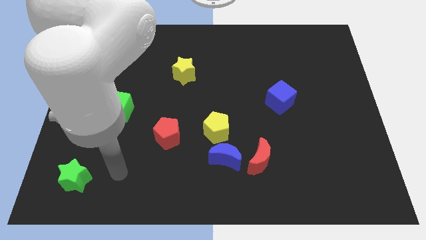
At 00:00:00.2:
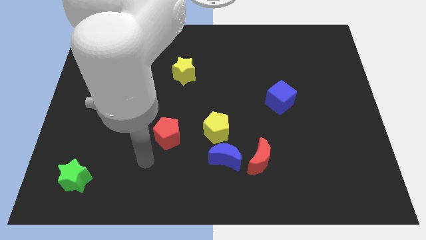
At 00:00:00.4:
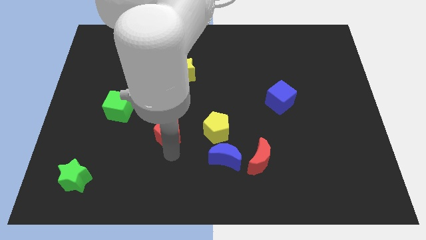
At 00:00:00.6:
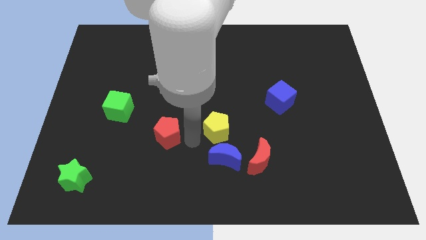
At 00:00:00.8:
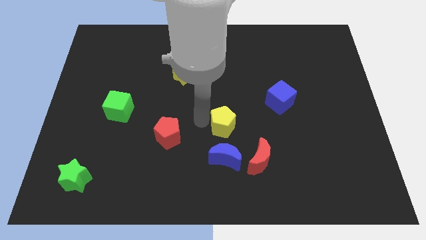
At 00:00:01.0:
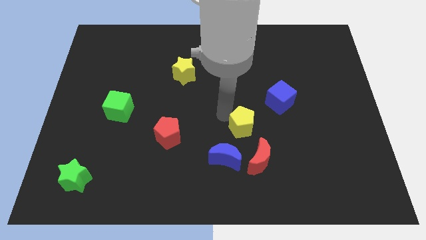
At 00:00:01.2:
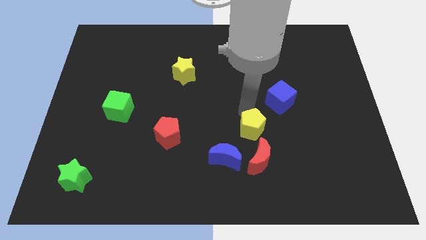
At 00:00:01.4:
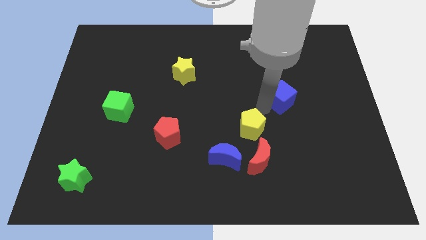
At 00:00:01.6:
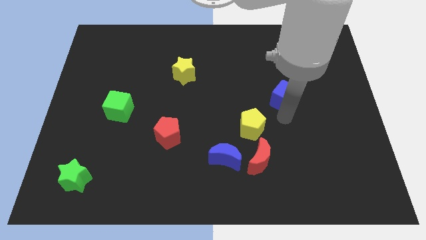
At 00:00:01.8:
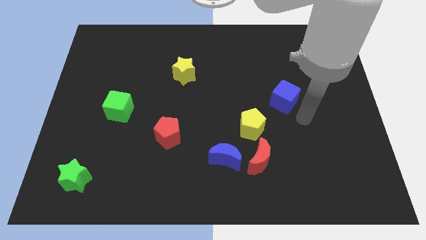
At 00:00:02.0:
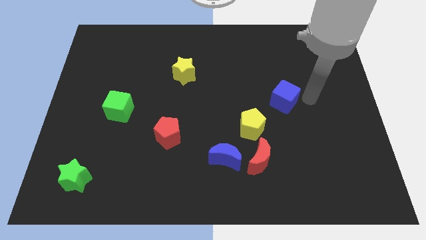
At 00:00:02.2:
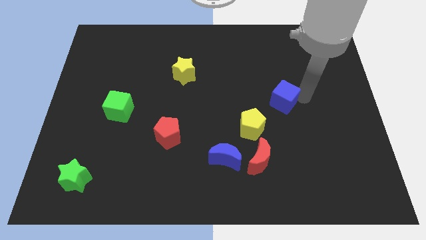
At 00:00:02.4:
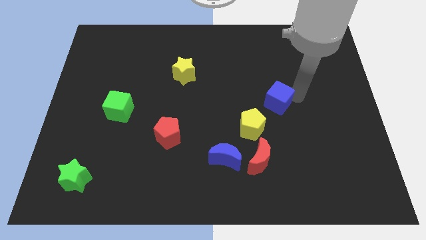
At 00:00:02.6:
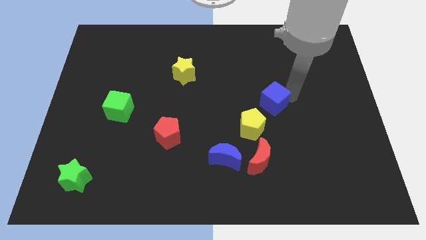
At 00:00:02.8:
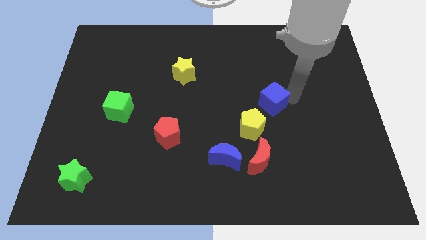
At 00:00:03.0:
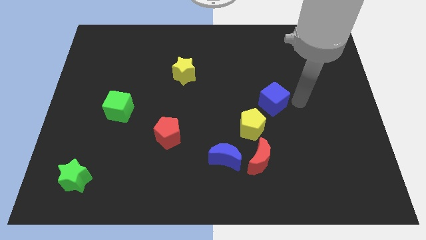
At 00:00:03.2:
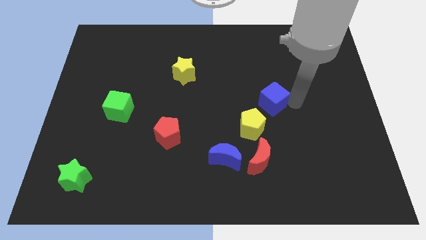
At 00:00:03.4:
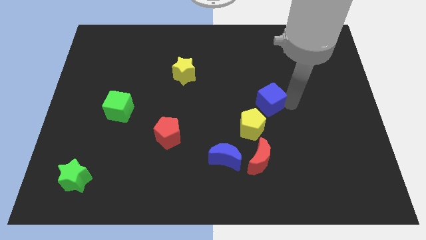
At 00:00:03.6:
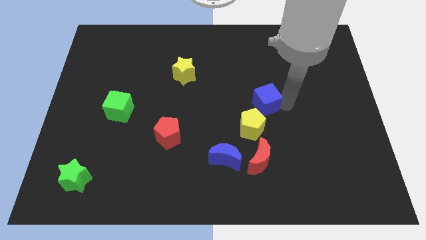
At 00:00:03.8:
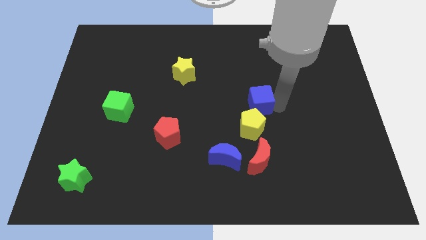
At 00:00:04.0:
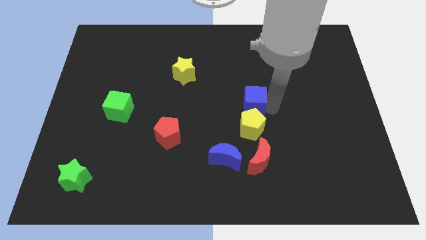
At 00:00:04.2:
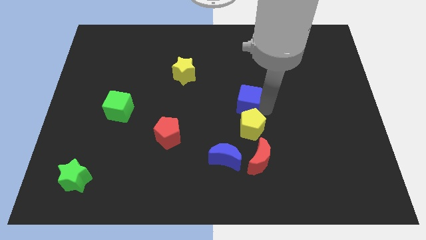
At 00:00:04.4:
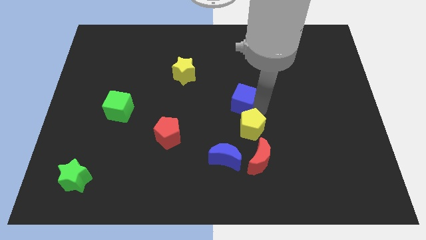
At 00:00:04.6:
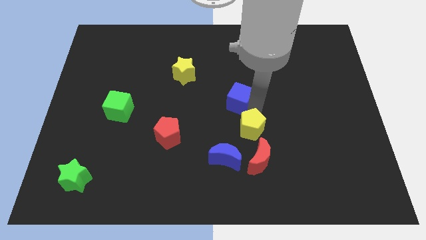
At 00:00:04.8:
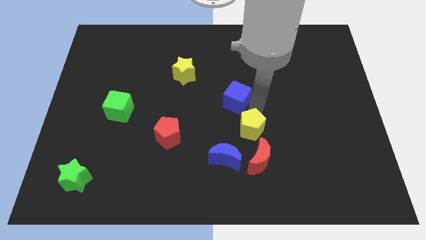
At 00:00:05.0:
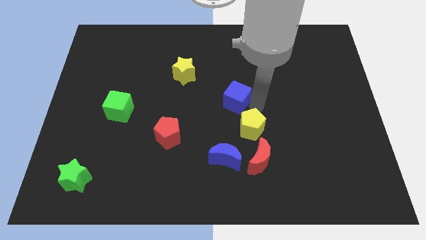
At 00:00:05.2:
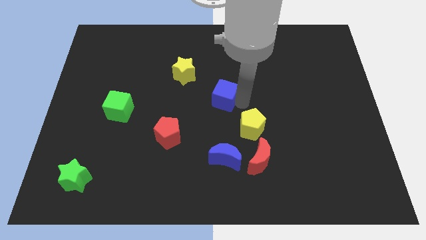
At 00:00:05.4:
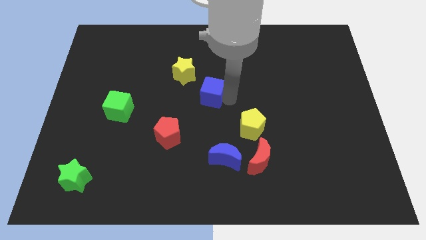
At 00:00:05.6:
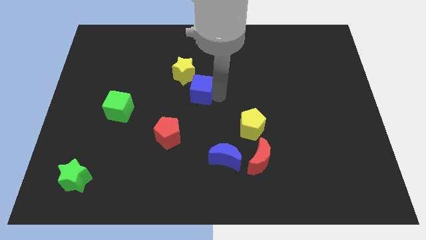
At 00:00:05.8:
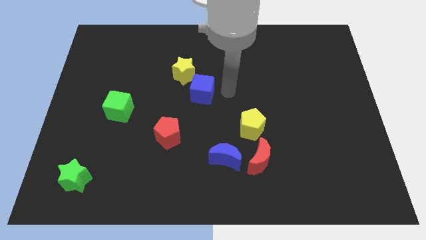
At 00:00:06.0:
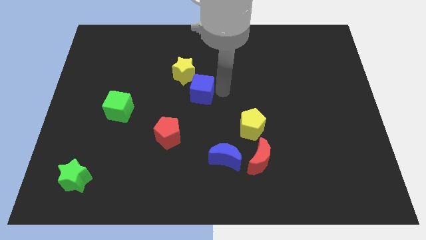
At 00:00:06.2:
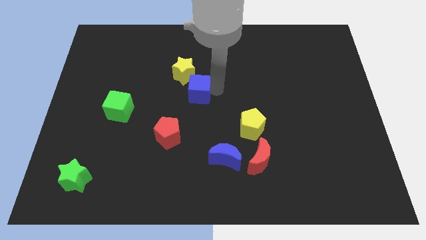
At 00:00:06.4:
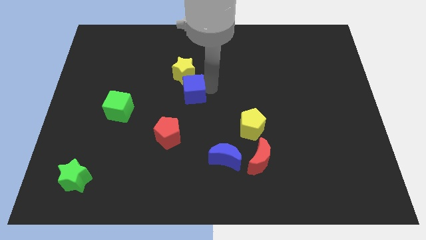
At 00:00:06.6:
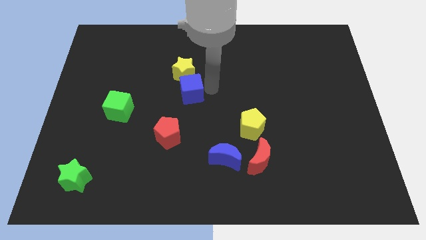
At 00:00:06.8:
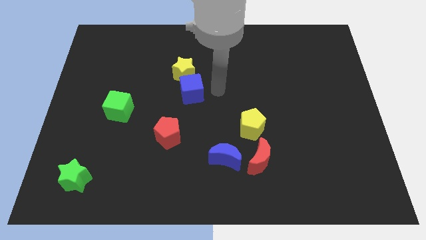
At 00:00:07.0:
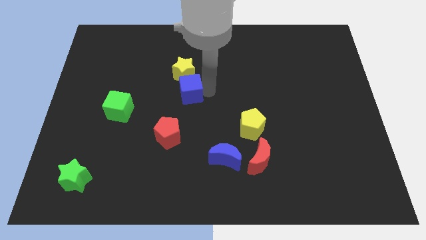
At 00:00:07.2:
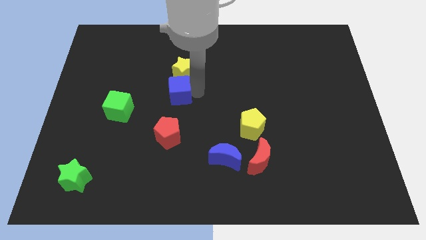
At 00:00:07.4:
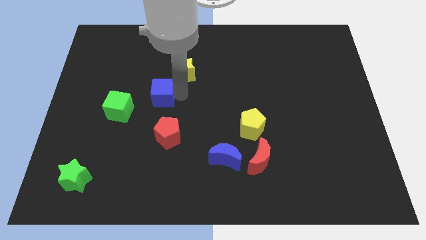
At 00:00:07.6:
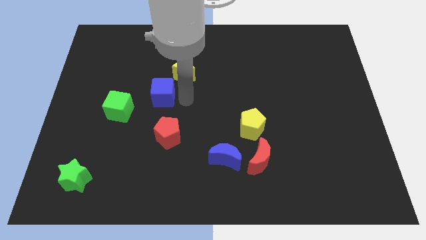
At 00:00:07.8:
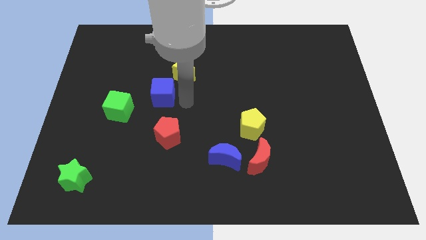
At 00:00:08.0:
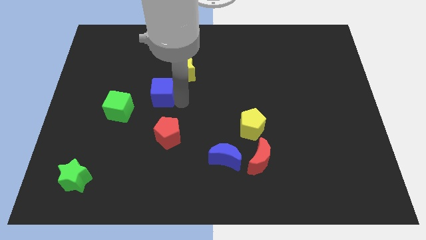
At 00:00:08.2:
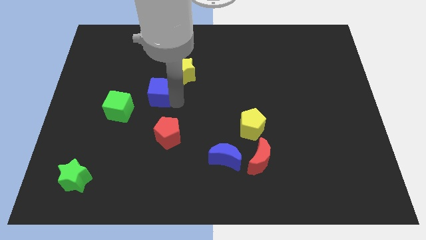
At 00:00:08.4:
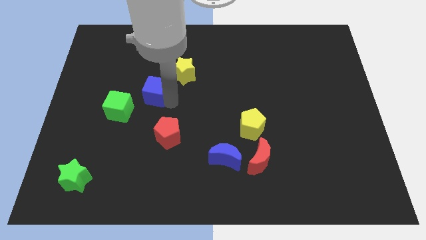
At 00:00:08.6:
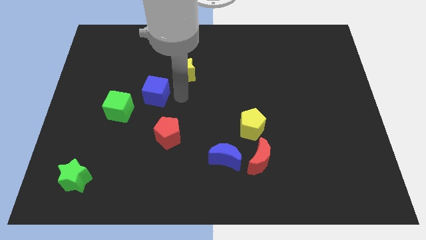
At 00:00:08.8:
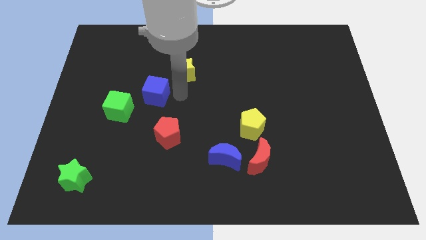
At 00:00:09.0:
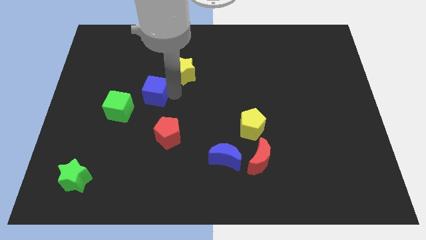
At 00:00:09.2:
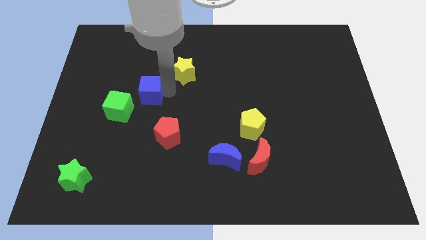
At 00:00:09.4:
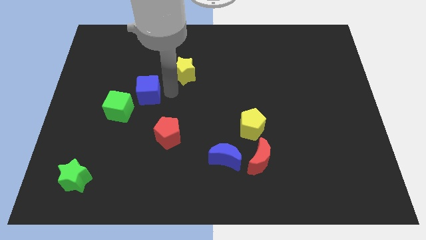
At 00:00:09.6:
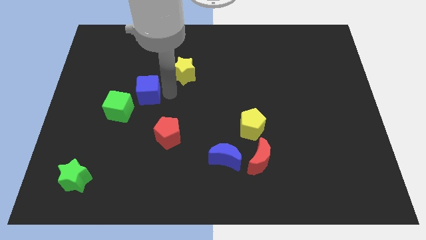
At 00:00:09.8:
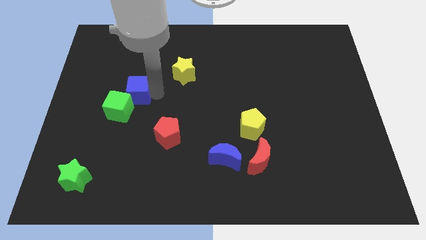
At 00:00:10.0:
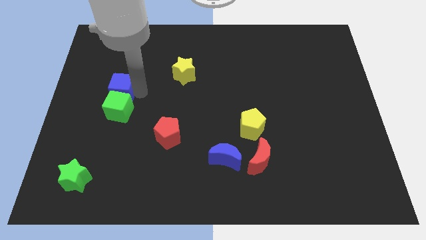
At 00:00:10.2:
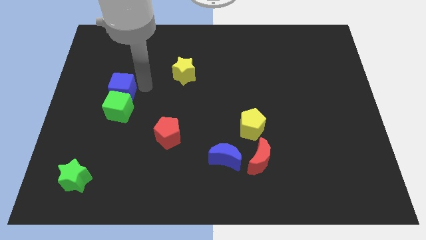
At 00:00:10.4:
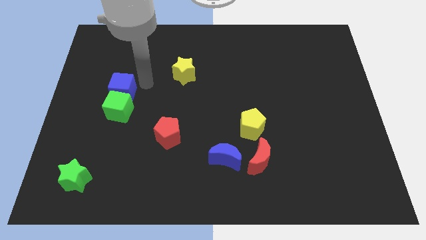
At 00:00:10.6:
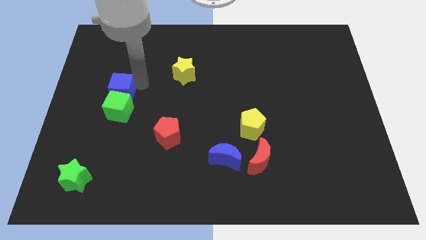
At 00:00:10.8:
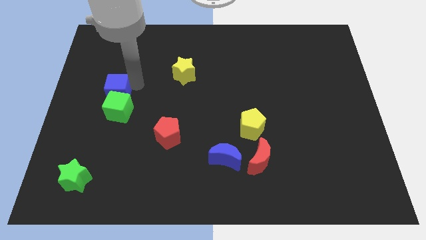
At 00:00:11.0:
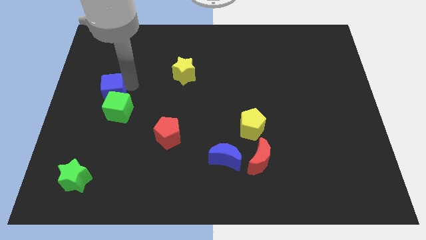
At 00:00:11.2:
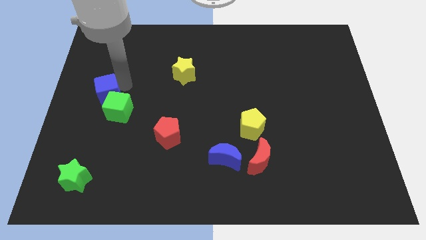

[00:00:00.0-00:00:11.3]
move the blue cube to the center left

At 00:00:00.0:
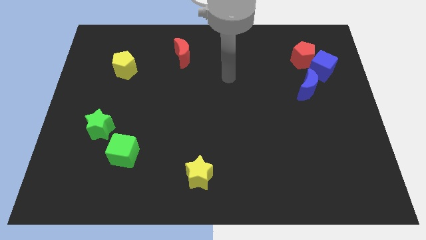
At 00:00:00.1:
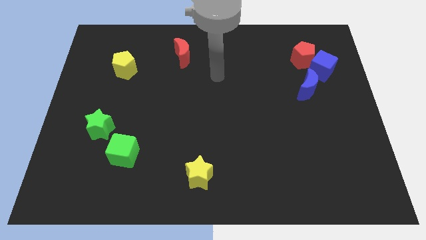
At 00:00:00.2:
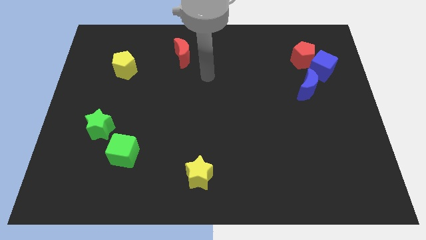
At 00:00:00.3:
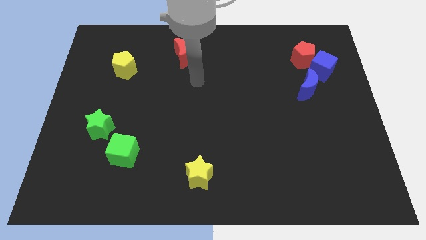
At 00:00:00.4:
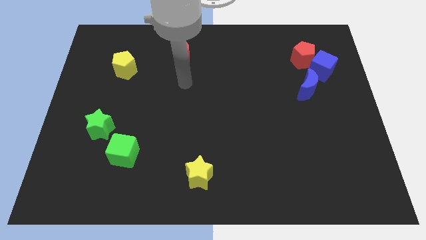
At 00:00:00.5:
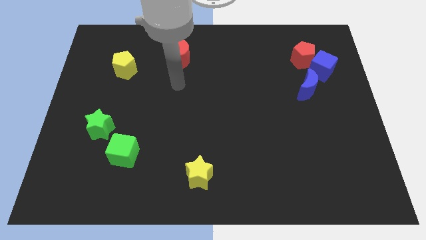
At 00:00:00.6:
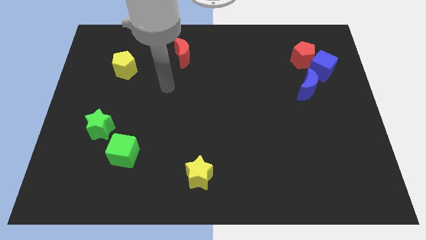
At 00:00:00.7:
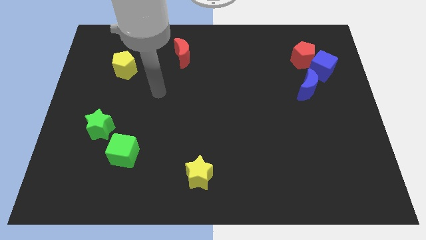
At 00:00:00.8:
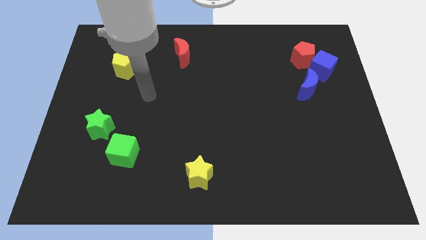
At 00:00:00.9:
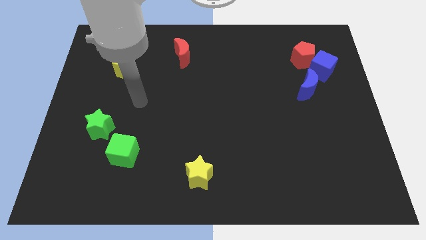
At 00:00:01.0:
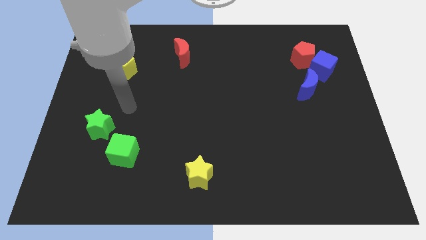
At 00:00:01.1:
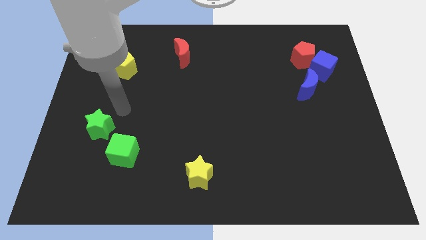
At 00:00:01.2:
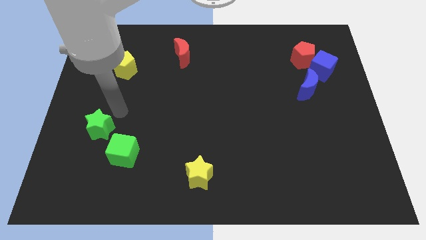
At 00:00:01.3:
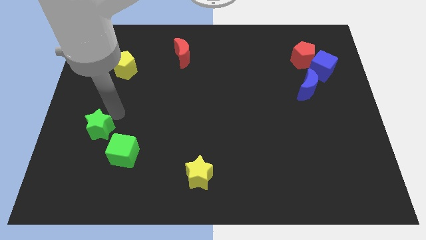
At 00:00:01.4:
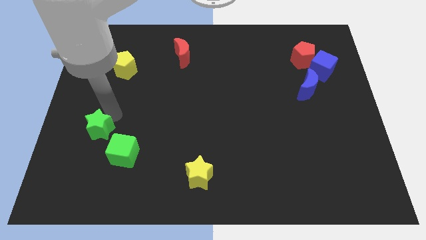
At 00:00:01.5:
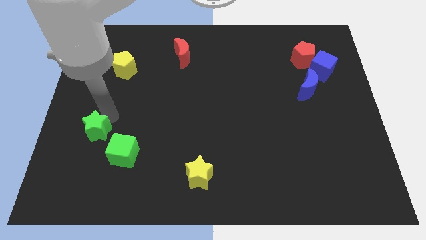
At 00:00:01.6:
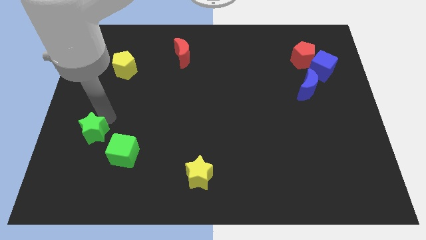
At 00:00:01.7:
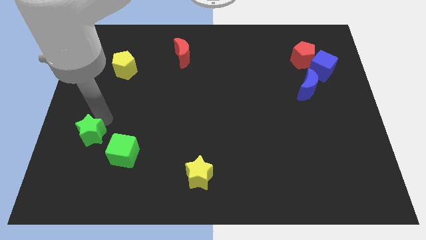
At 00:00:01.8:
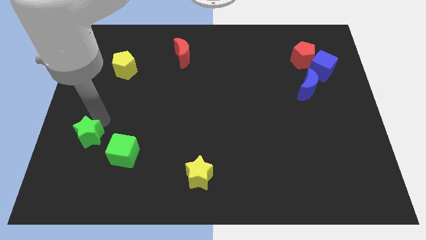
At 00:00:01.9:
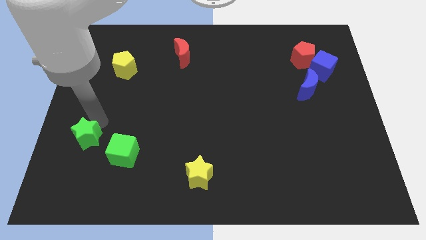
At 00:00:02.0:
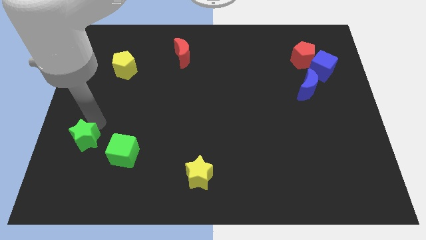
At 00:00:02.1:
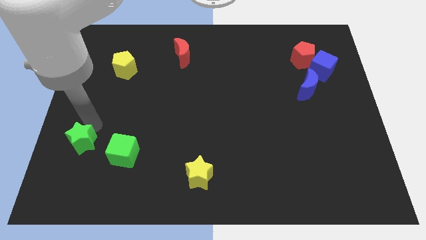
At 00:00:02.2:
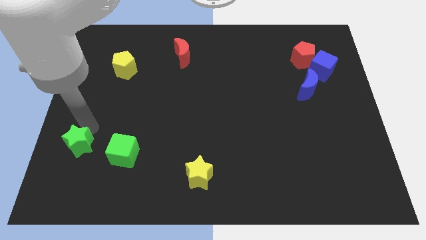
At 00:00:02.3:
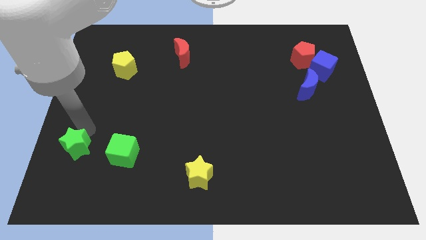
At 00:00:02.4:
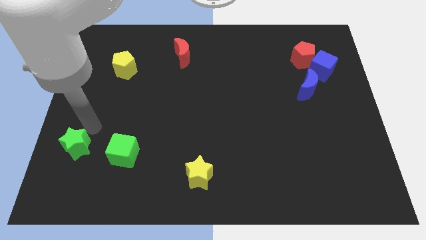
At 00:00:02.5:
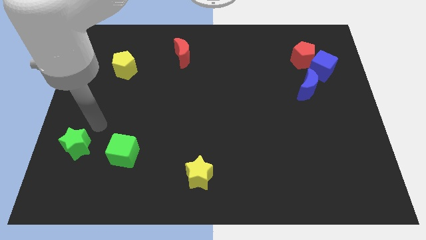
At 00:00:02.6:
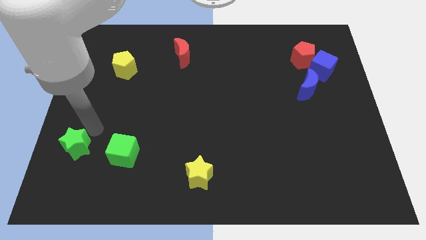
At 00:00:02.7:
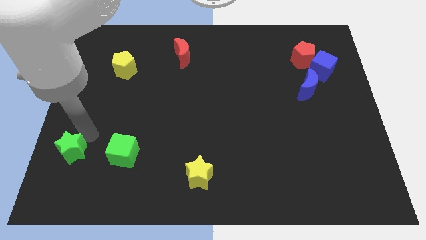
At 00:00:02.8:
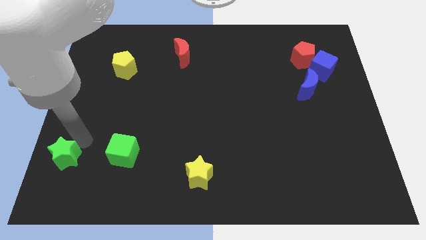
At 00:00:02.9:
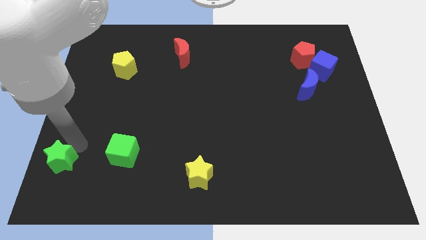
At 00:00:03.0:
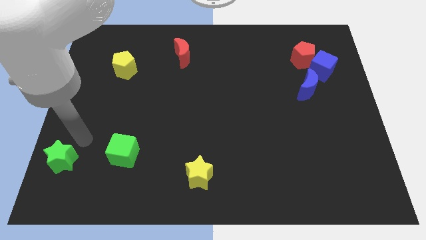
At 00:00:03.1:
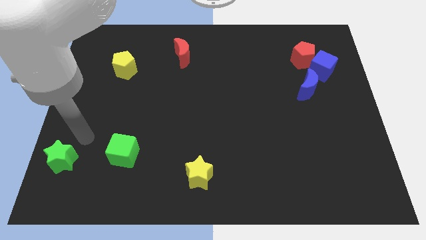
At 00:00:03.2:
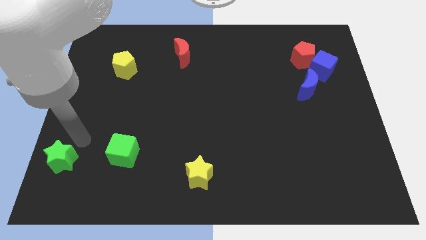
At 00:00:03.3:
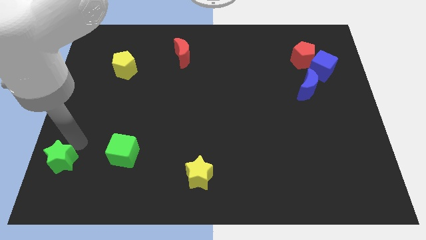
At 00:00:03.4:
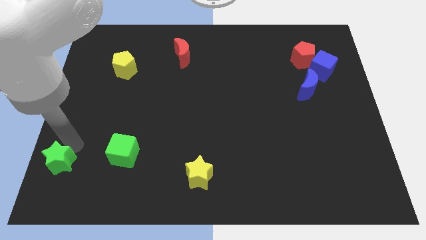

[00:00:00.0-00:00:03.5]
put the green star to the bottom left of the board
